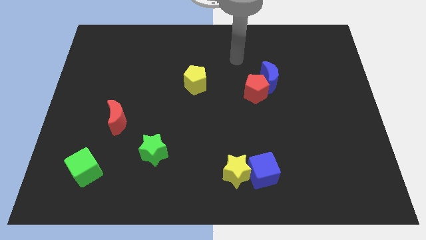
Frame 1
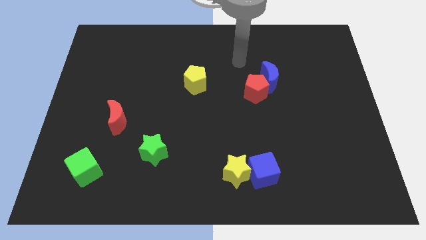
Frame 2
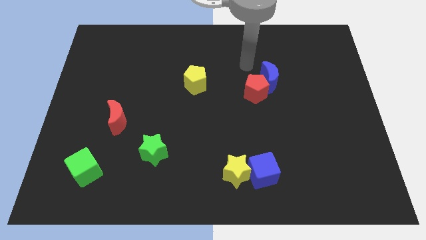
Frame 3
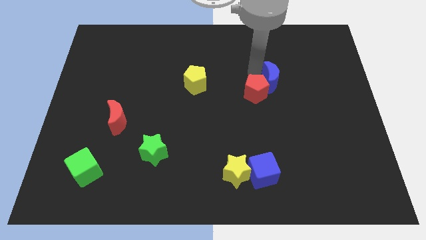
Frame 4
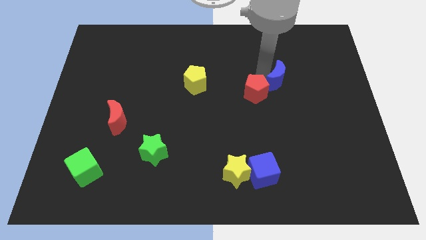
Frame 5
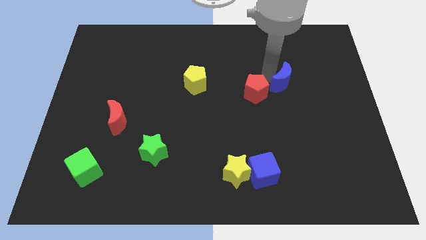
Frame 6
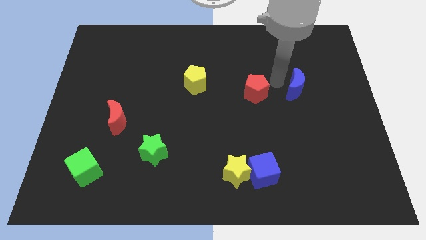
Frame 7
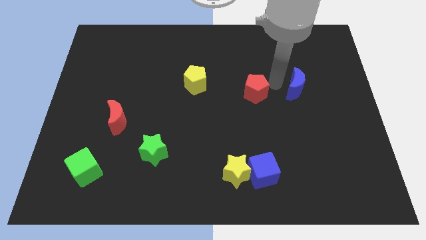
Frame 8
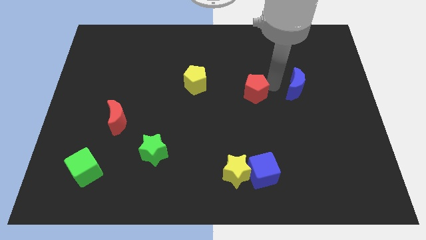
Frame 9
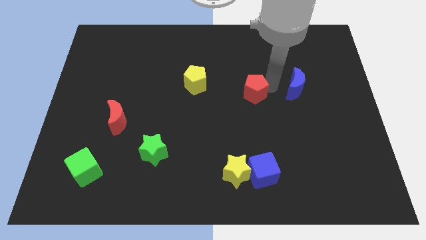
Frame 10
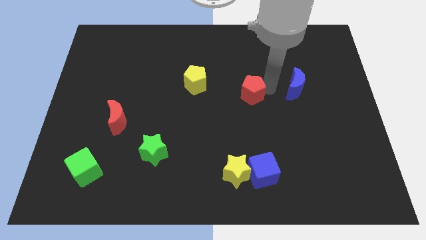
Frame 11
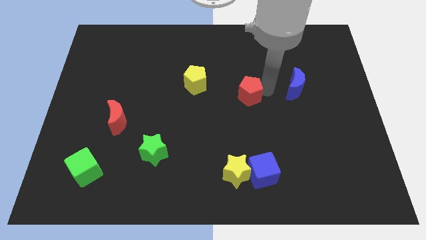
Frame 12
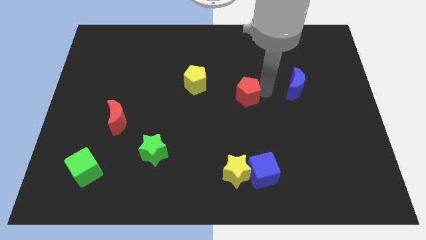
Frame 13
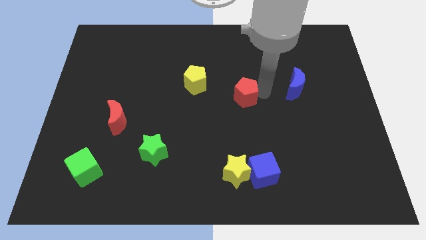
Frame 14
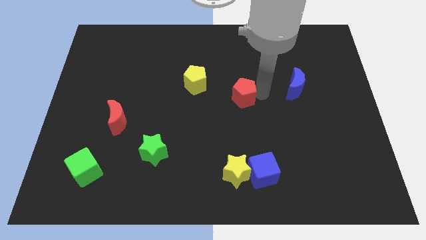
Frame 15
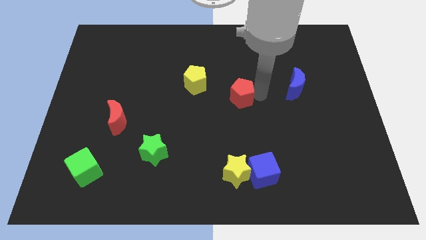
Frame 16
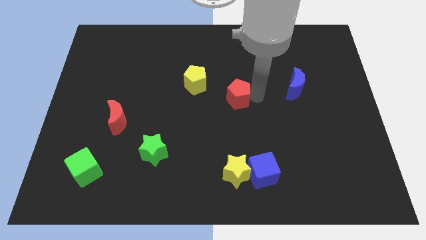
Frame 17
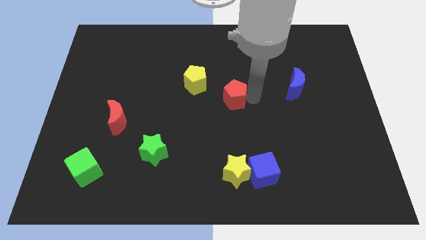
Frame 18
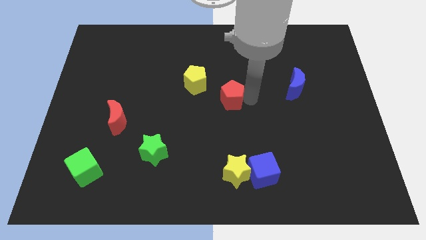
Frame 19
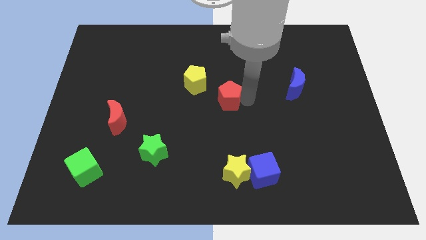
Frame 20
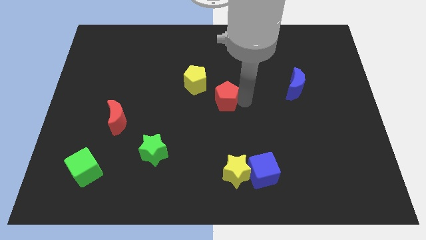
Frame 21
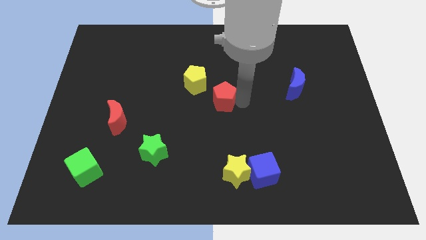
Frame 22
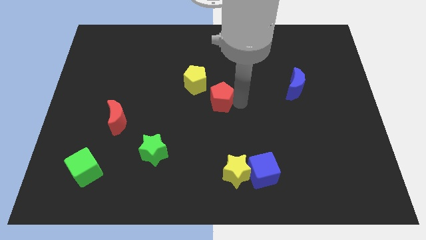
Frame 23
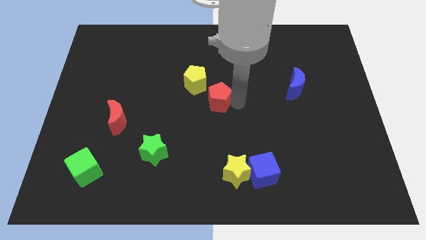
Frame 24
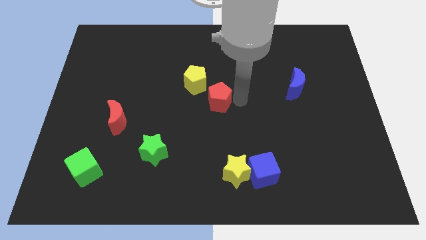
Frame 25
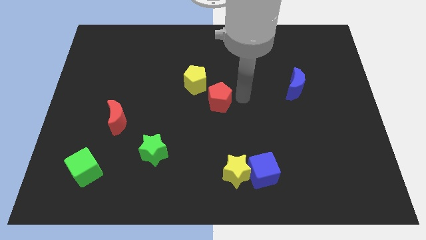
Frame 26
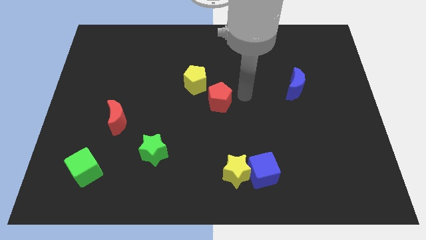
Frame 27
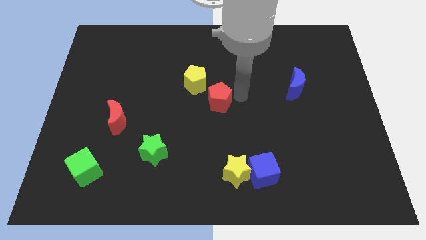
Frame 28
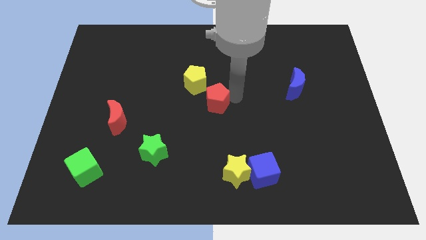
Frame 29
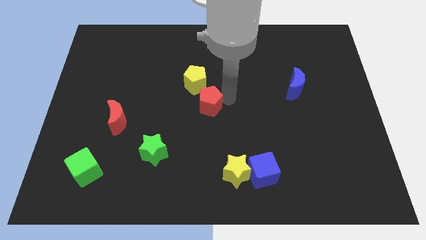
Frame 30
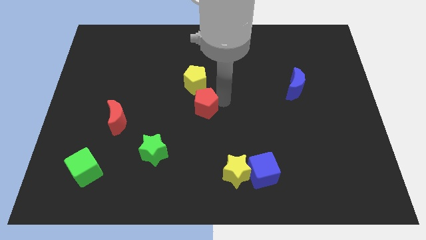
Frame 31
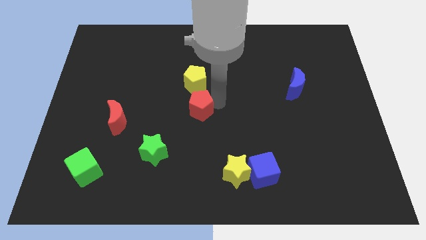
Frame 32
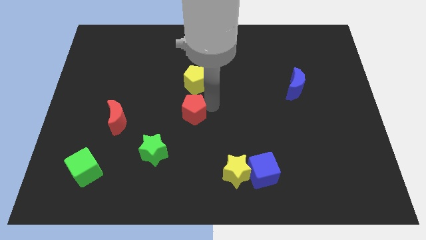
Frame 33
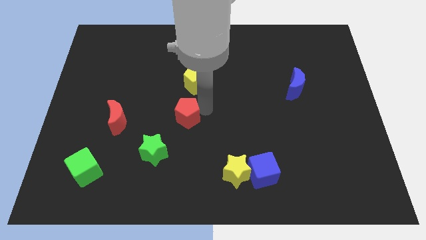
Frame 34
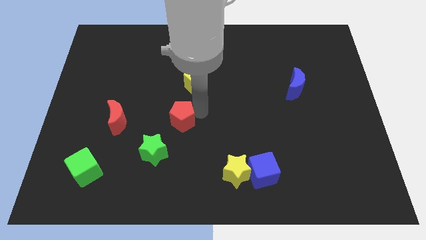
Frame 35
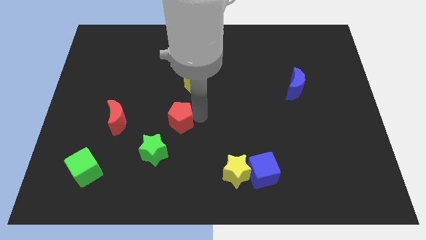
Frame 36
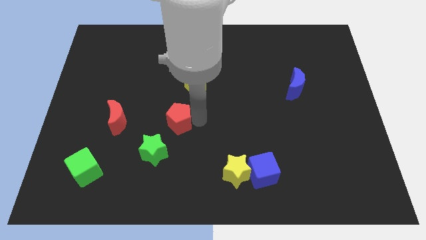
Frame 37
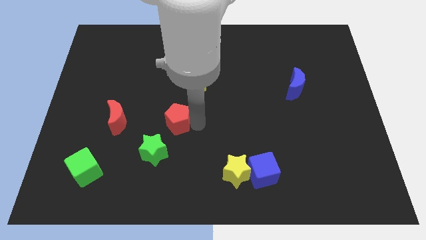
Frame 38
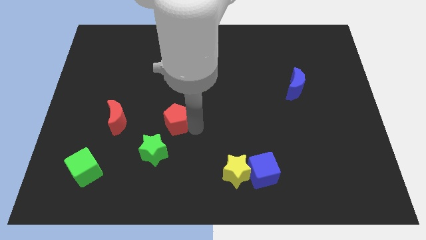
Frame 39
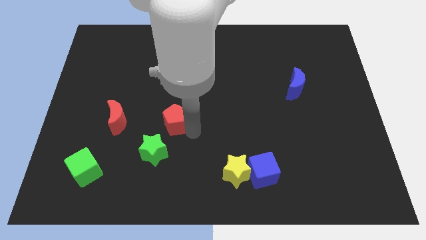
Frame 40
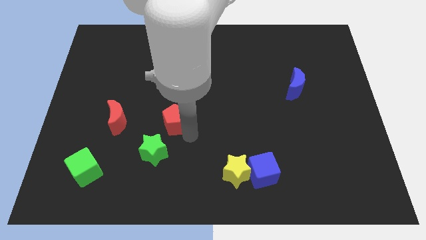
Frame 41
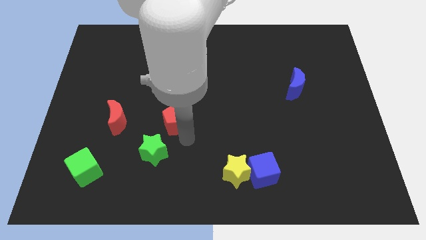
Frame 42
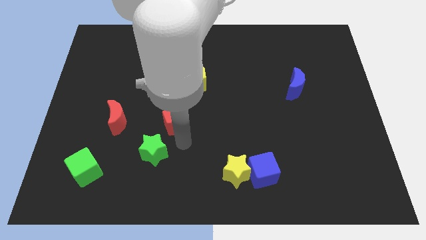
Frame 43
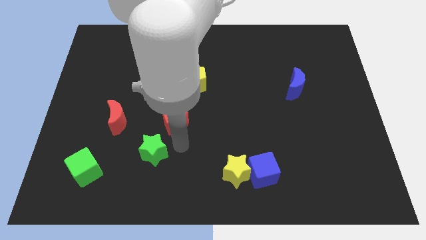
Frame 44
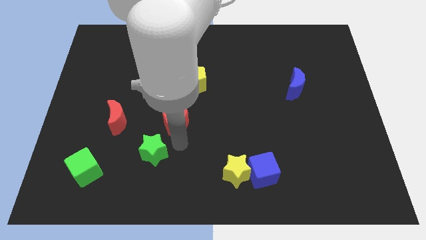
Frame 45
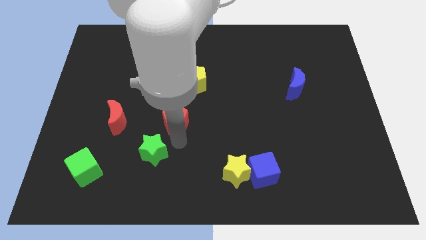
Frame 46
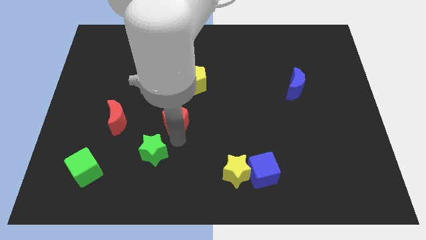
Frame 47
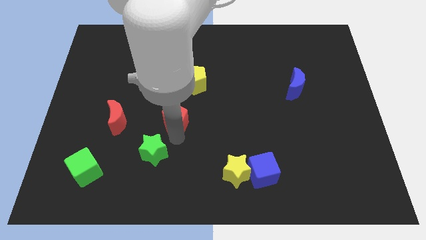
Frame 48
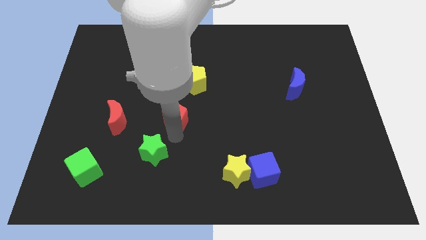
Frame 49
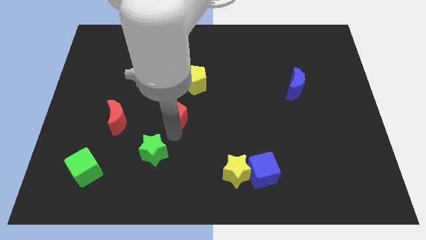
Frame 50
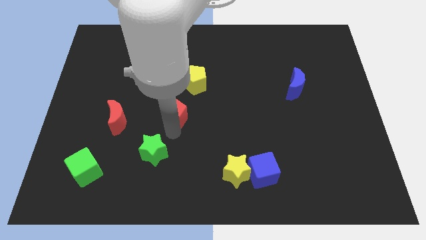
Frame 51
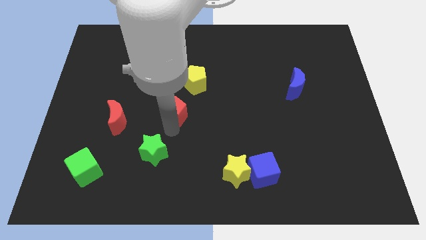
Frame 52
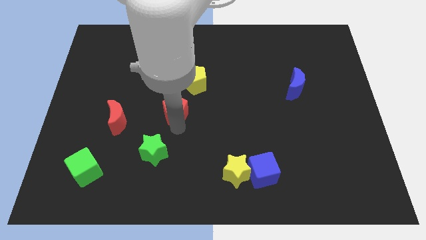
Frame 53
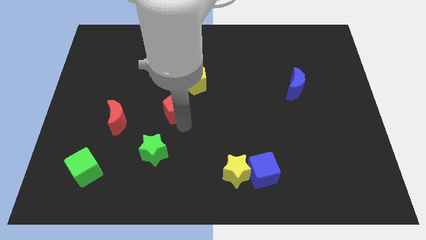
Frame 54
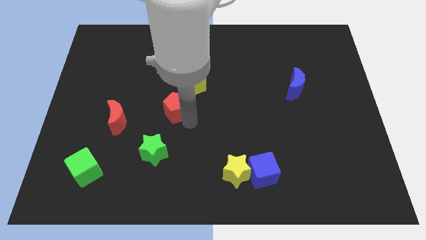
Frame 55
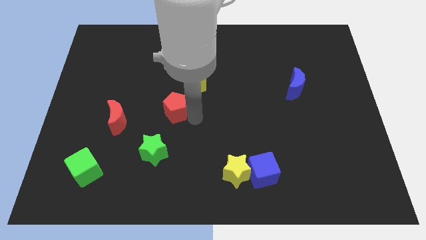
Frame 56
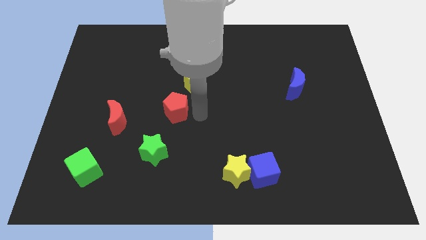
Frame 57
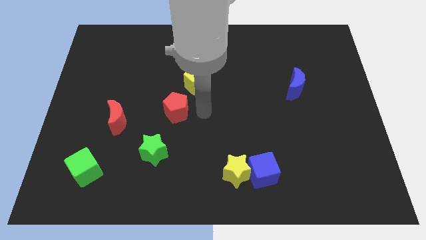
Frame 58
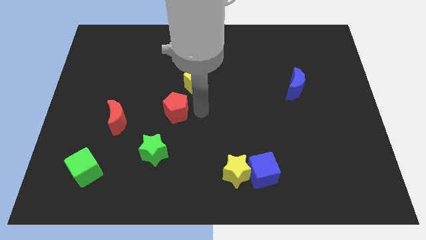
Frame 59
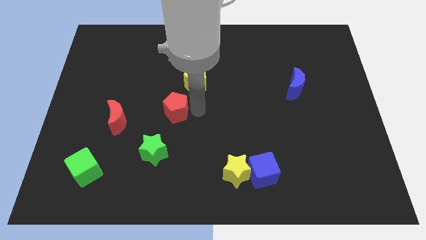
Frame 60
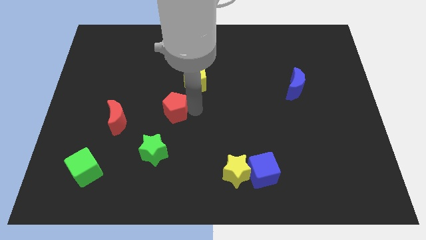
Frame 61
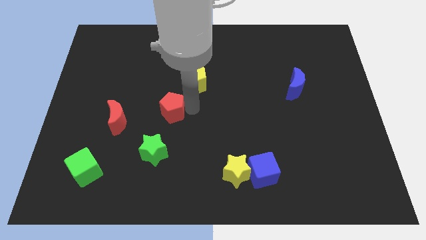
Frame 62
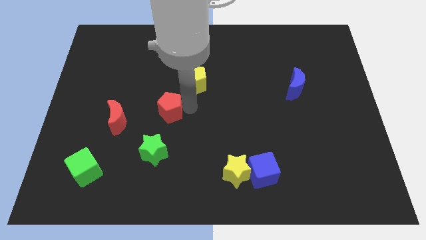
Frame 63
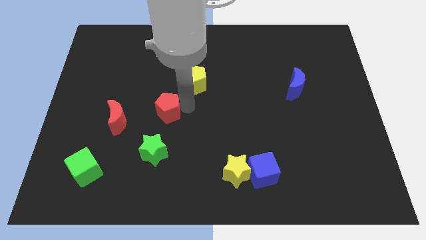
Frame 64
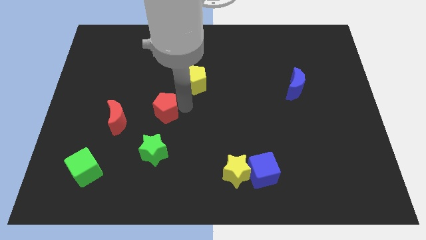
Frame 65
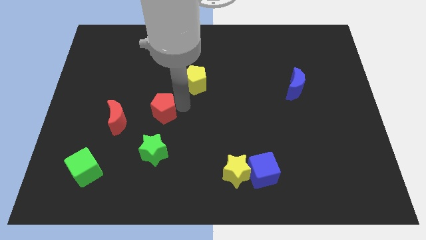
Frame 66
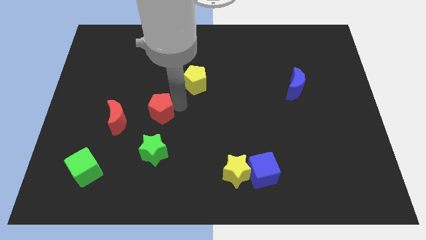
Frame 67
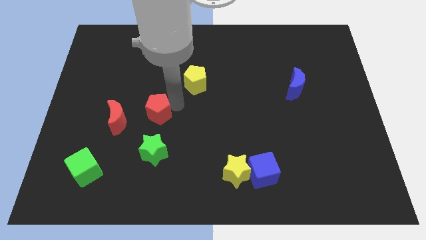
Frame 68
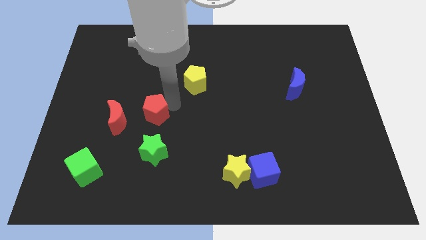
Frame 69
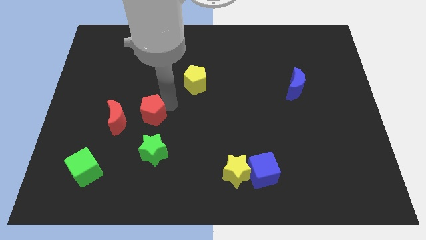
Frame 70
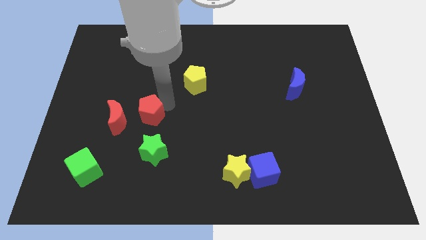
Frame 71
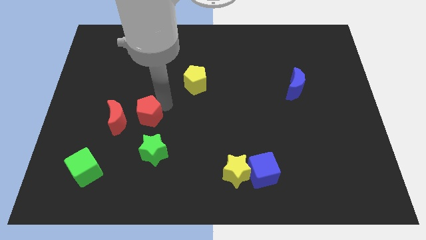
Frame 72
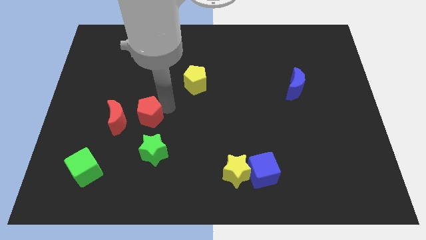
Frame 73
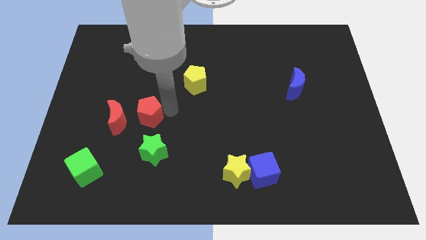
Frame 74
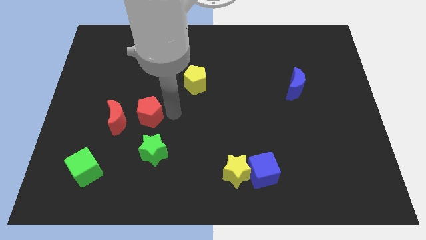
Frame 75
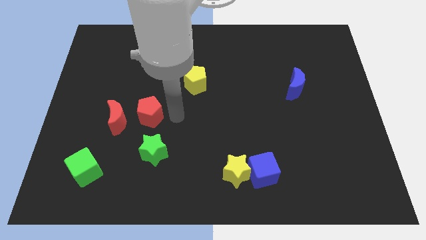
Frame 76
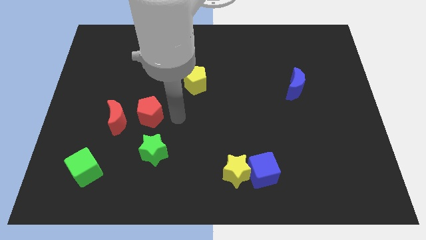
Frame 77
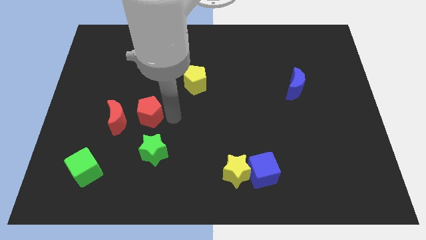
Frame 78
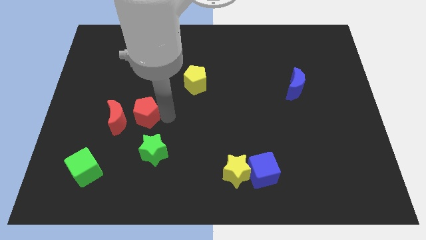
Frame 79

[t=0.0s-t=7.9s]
push the red pentagon next to the red moon
